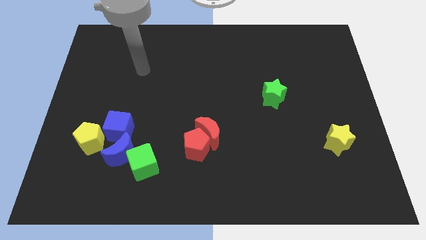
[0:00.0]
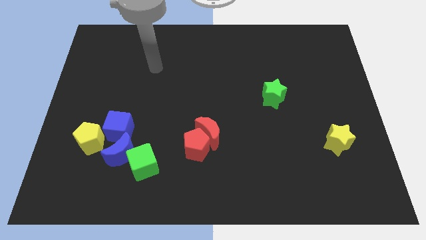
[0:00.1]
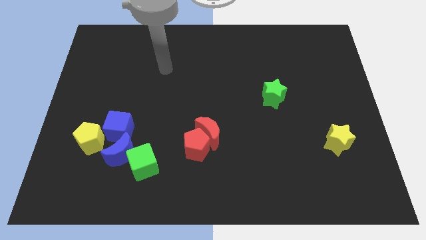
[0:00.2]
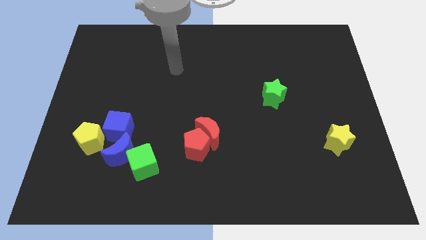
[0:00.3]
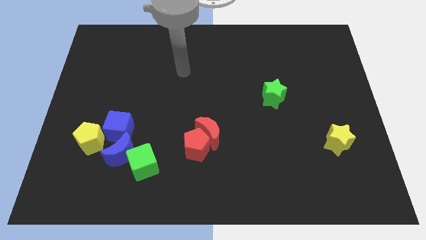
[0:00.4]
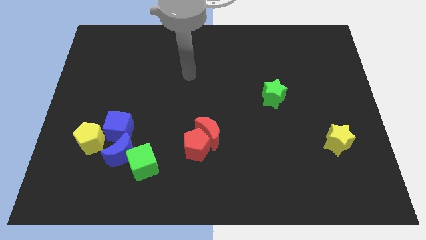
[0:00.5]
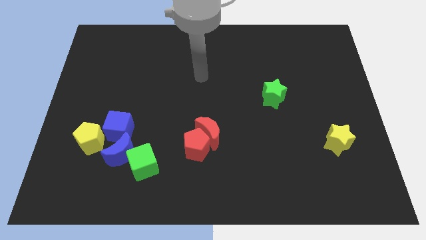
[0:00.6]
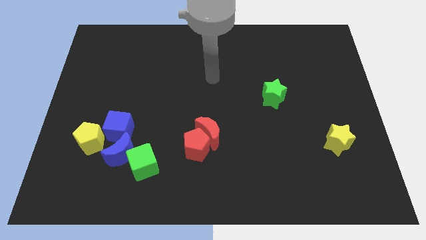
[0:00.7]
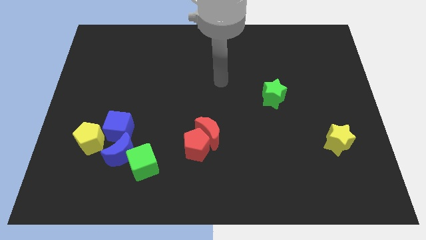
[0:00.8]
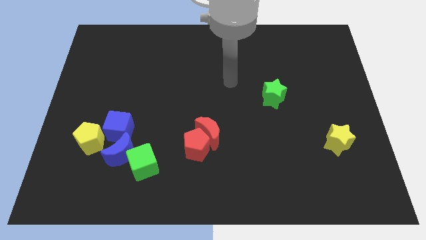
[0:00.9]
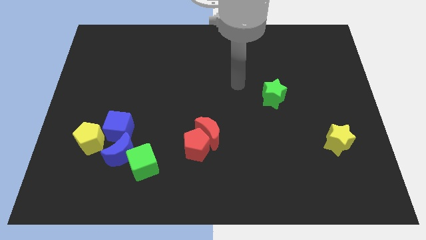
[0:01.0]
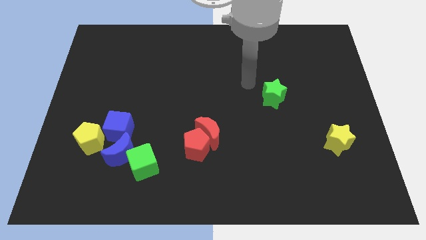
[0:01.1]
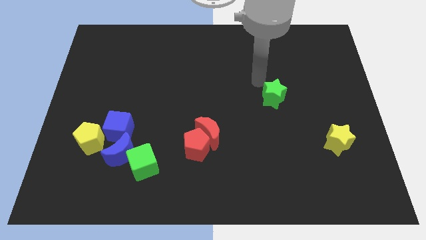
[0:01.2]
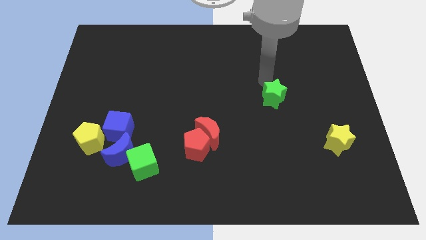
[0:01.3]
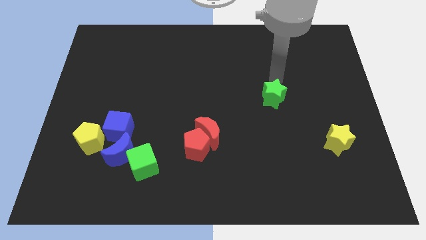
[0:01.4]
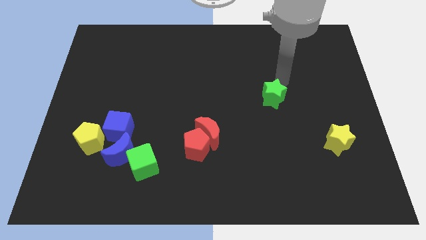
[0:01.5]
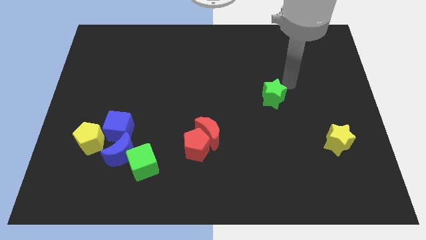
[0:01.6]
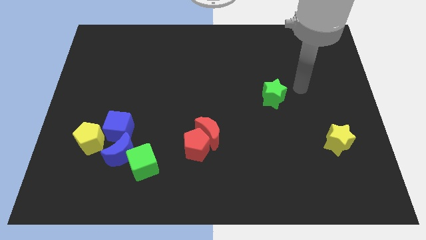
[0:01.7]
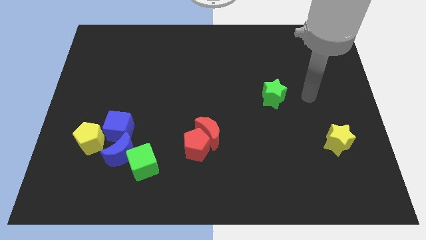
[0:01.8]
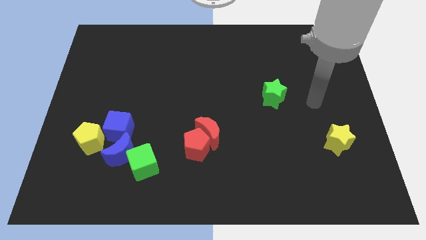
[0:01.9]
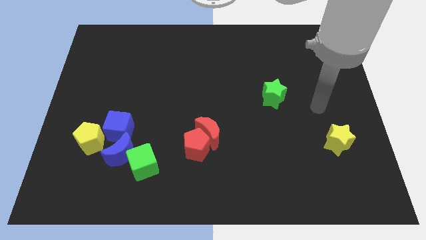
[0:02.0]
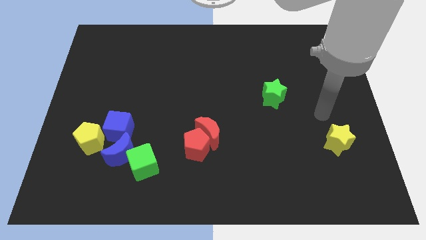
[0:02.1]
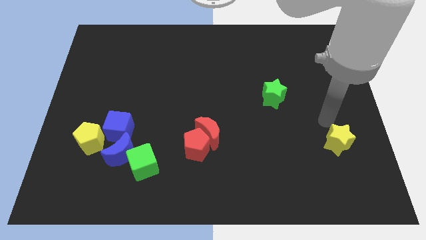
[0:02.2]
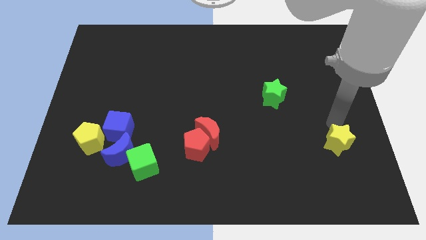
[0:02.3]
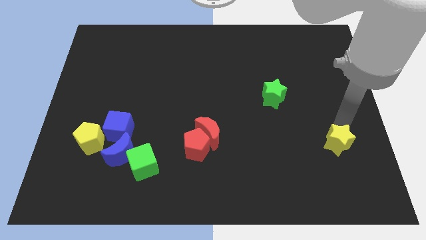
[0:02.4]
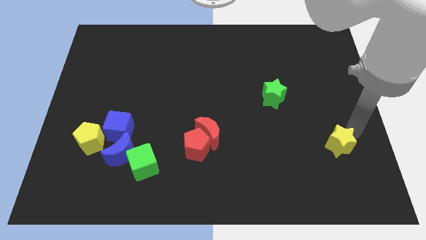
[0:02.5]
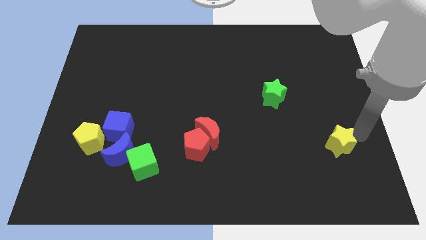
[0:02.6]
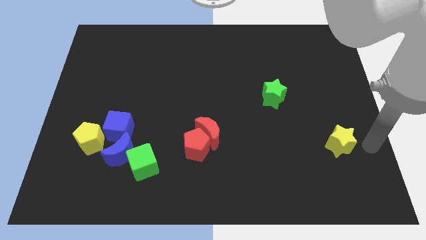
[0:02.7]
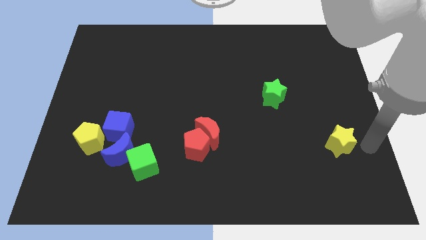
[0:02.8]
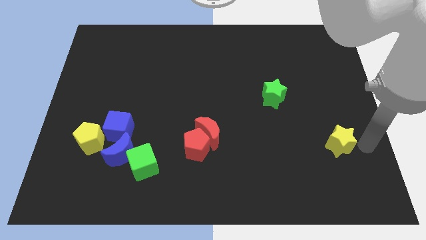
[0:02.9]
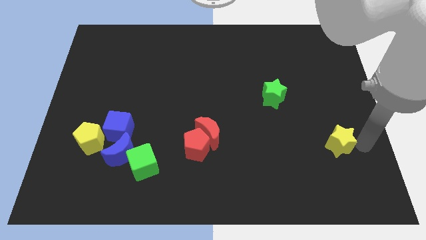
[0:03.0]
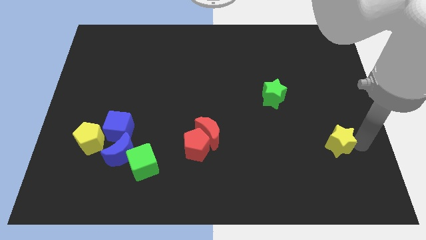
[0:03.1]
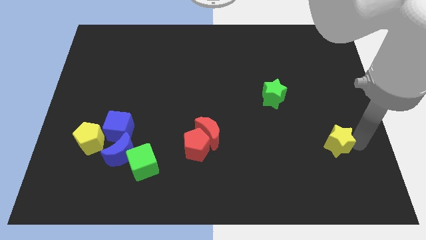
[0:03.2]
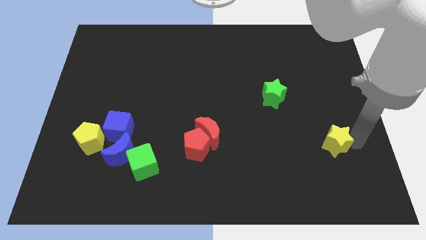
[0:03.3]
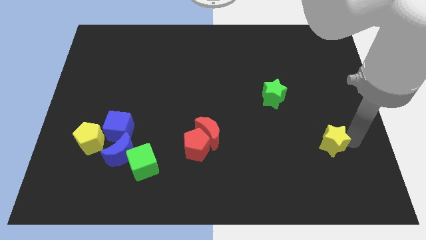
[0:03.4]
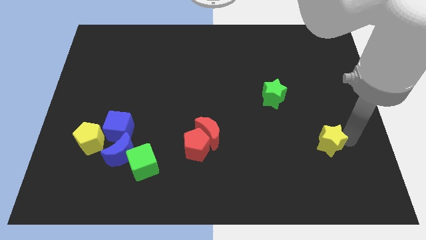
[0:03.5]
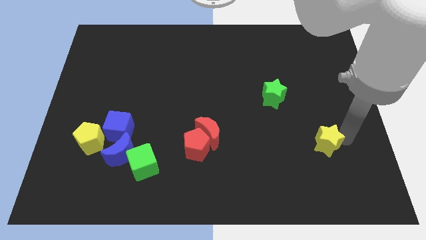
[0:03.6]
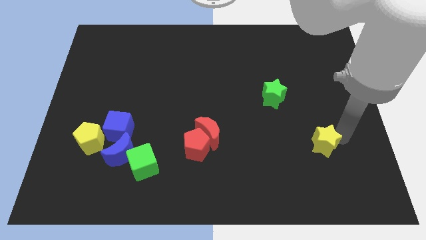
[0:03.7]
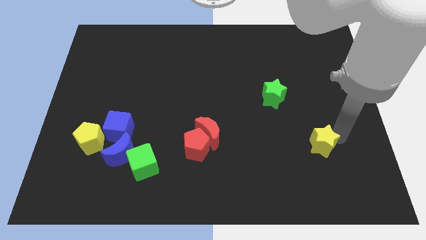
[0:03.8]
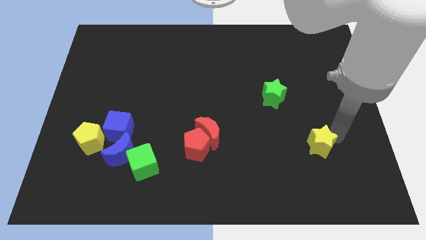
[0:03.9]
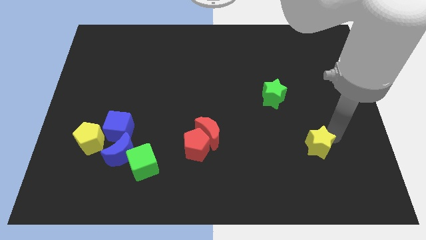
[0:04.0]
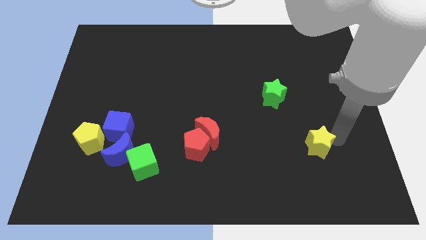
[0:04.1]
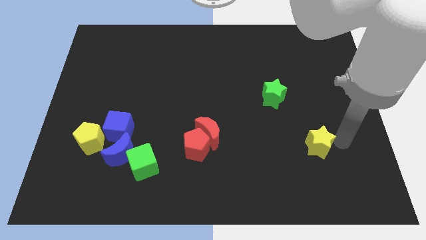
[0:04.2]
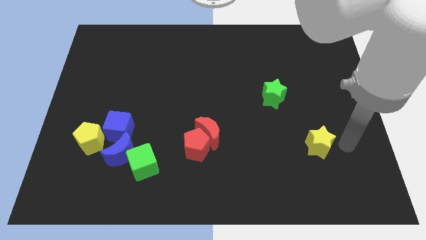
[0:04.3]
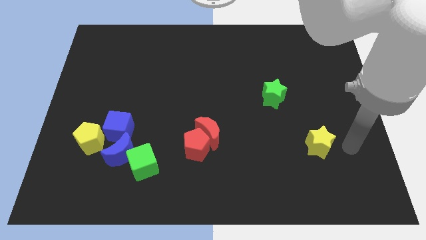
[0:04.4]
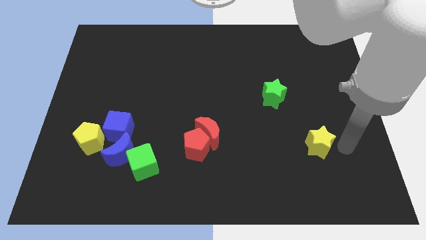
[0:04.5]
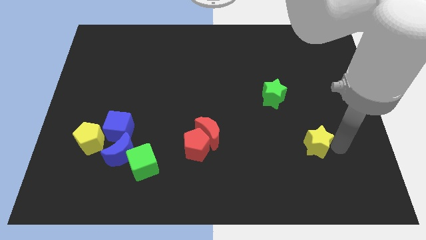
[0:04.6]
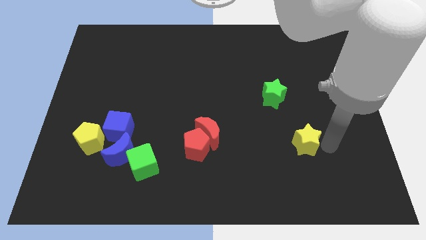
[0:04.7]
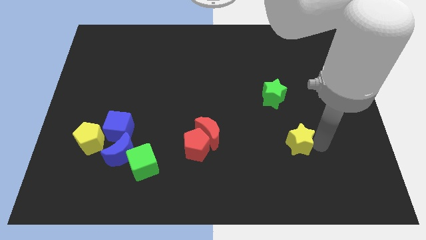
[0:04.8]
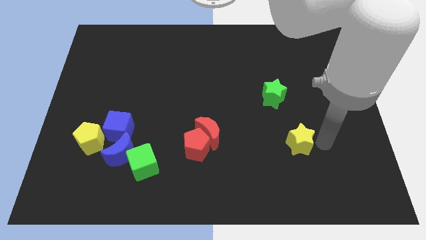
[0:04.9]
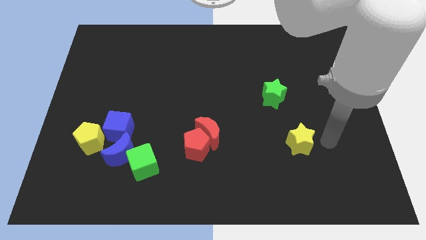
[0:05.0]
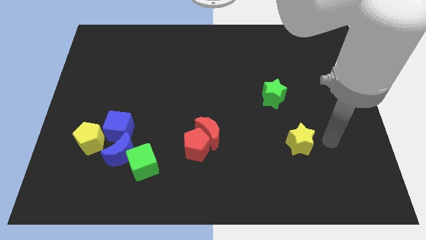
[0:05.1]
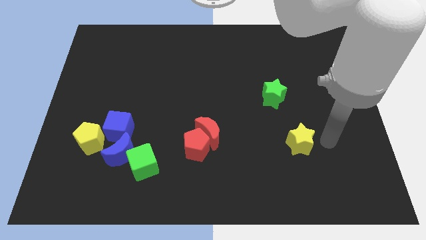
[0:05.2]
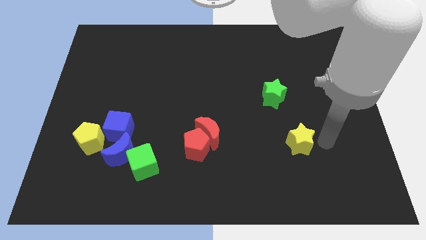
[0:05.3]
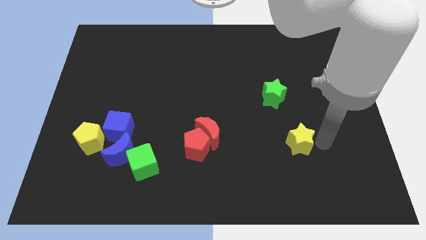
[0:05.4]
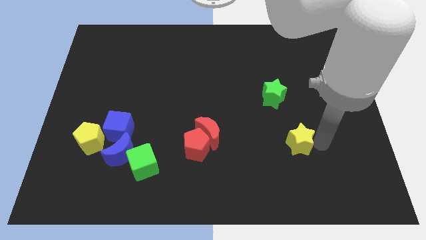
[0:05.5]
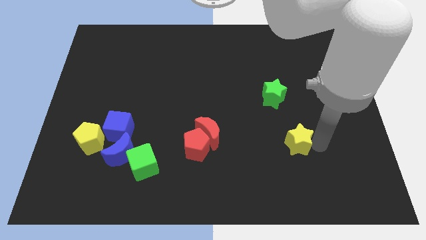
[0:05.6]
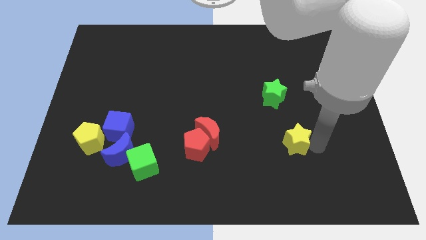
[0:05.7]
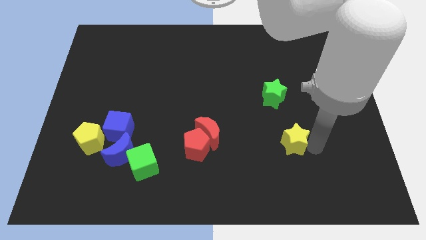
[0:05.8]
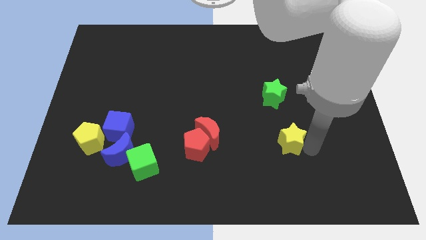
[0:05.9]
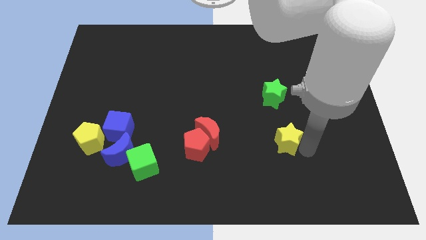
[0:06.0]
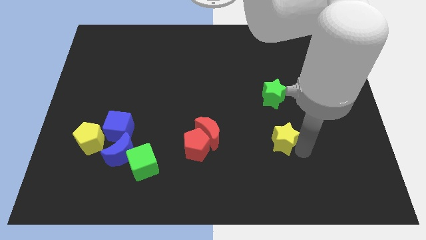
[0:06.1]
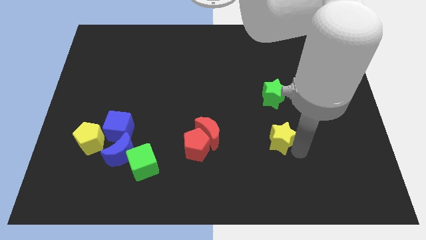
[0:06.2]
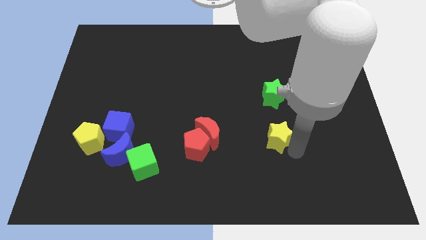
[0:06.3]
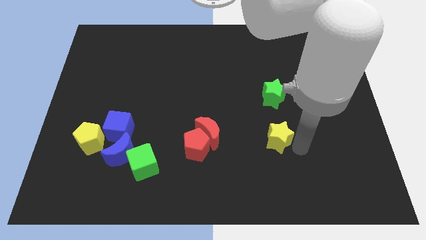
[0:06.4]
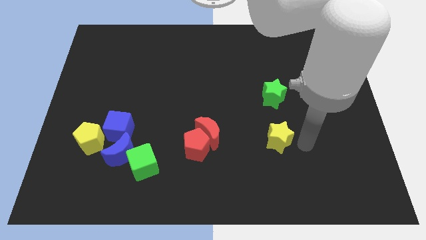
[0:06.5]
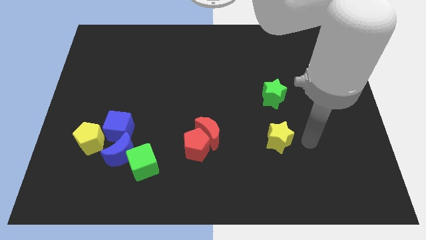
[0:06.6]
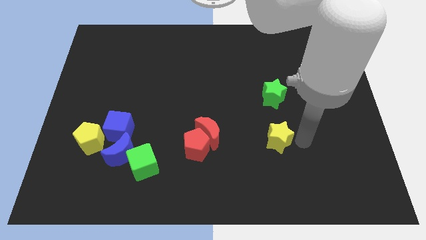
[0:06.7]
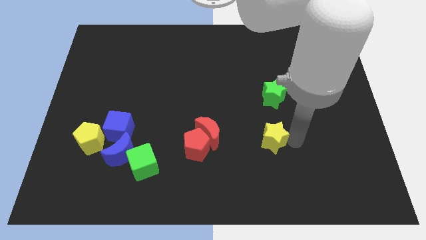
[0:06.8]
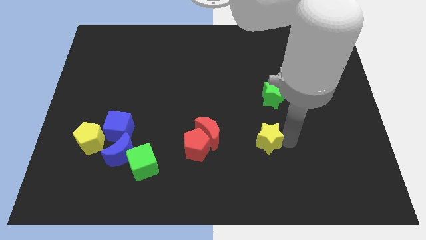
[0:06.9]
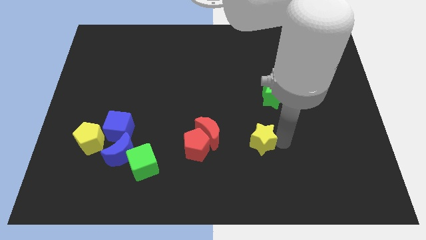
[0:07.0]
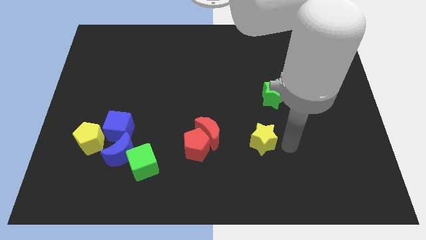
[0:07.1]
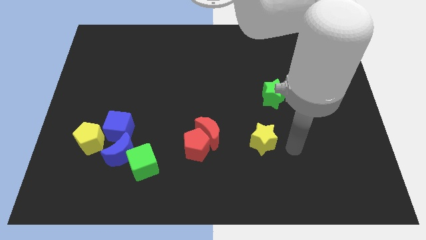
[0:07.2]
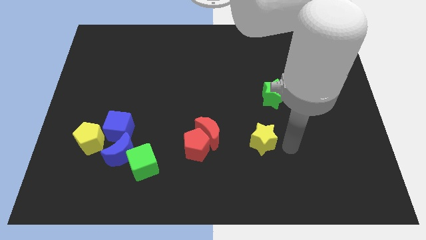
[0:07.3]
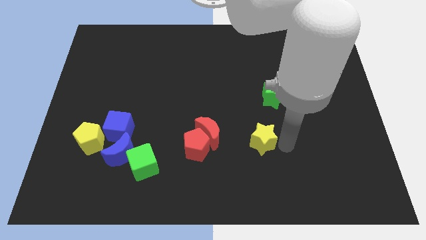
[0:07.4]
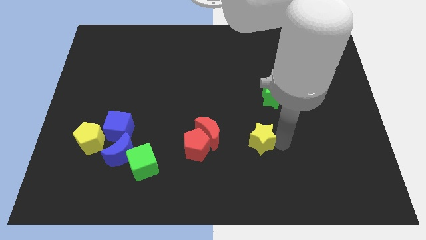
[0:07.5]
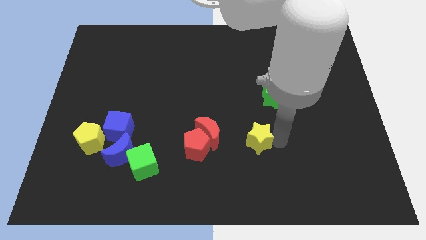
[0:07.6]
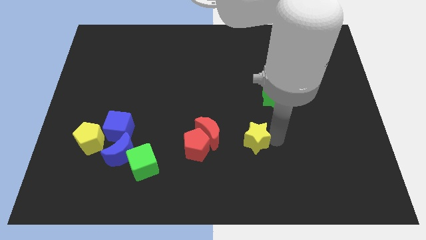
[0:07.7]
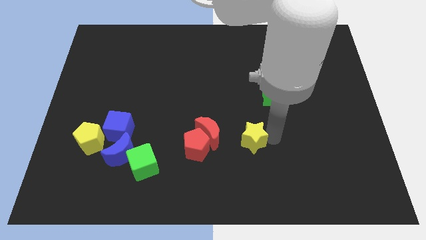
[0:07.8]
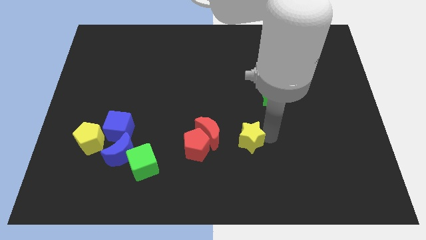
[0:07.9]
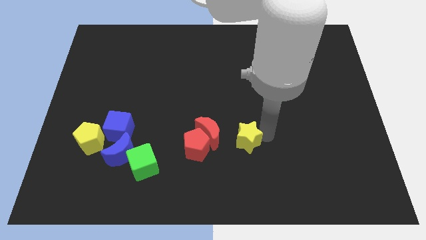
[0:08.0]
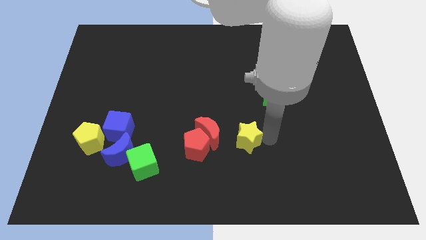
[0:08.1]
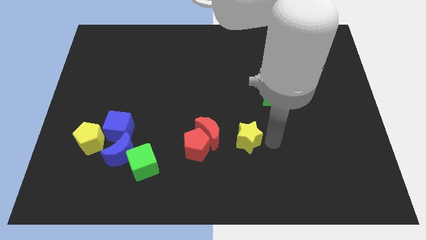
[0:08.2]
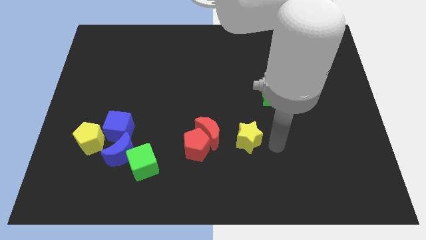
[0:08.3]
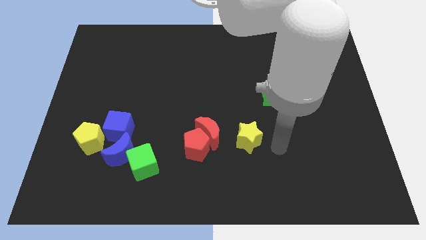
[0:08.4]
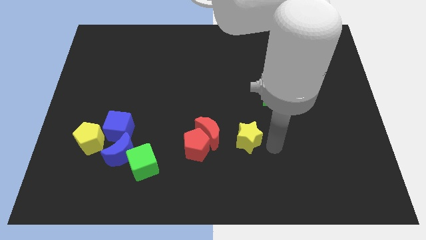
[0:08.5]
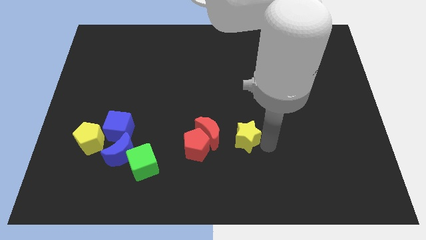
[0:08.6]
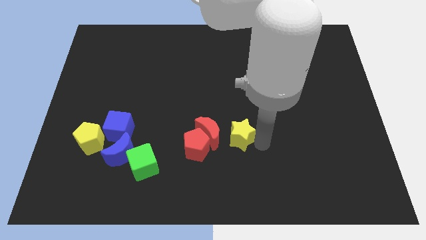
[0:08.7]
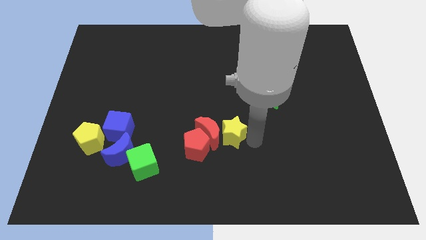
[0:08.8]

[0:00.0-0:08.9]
move the yellow star towards the red moon
